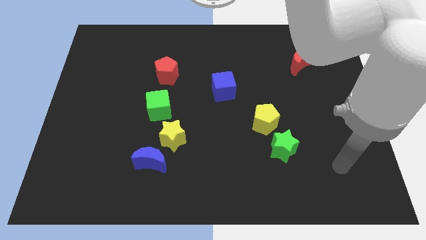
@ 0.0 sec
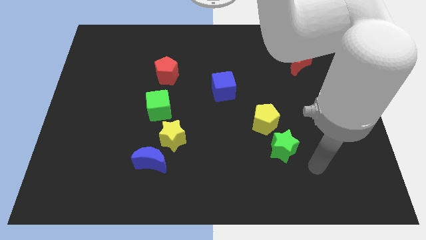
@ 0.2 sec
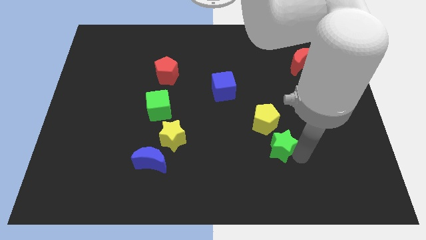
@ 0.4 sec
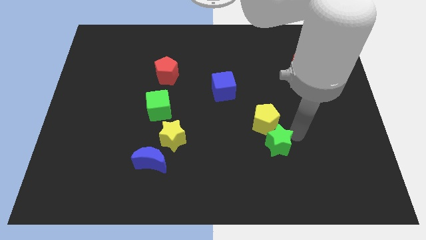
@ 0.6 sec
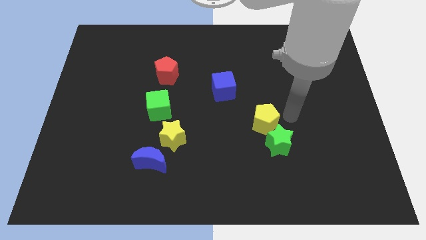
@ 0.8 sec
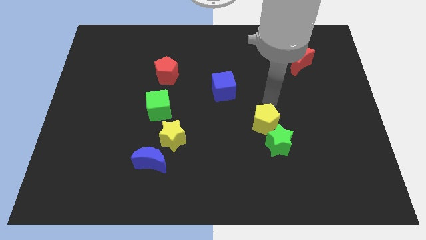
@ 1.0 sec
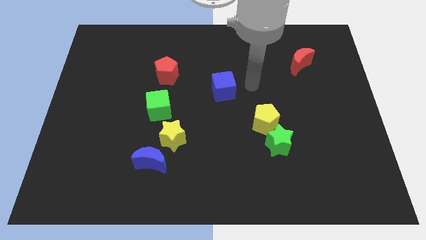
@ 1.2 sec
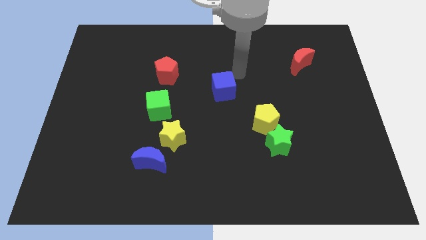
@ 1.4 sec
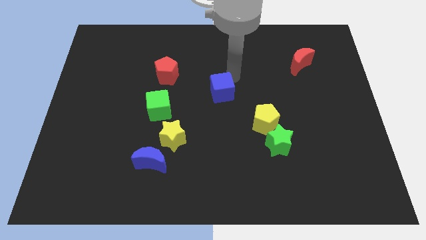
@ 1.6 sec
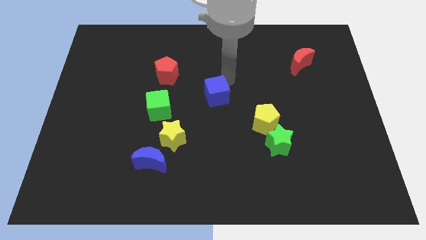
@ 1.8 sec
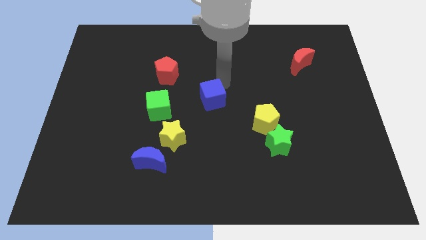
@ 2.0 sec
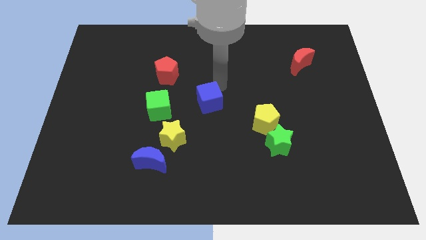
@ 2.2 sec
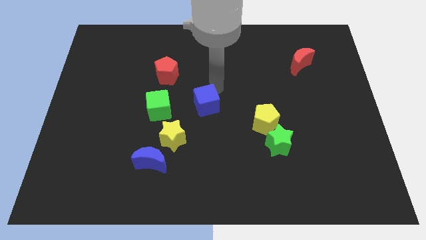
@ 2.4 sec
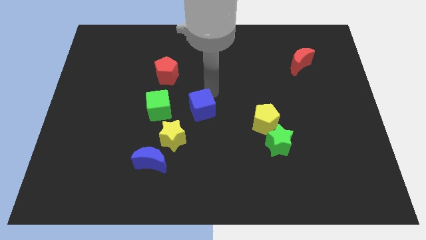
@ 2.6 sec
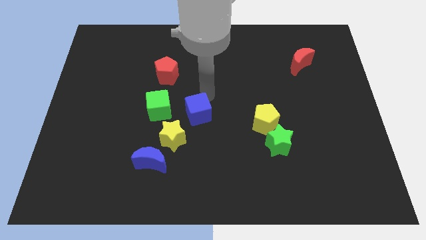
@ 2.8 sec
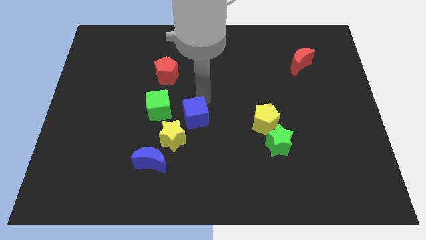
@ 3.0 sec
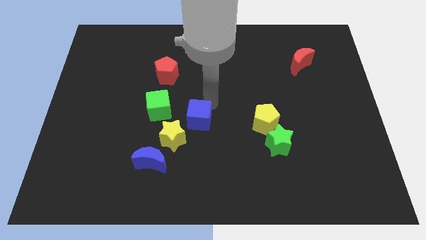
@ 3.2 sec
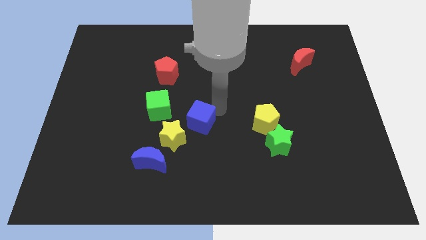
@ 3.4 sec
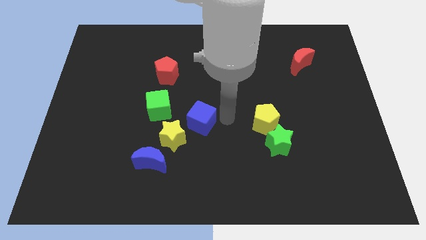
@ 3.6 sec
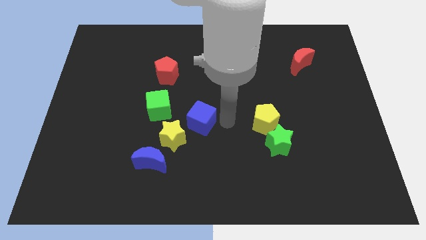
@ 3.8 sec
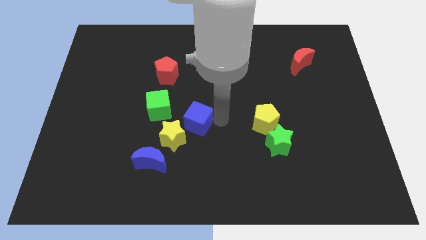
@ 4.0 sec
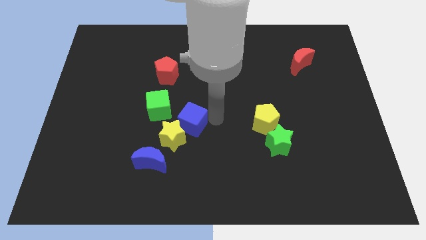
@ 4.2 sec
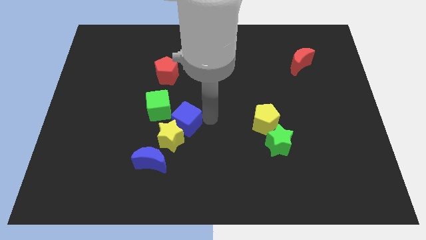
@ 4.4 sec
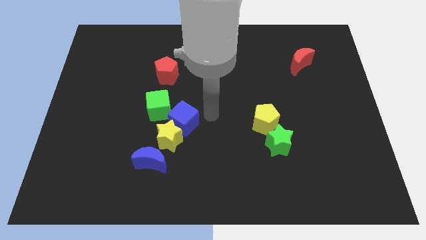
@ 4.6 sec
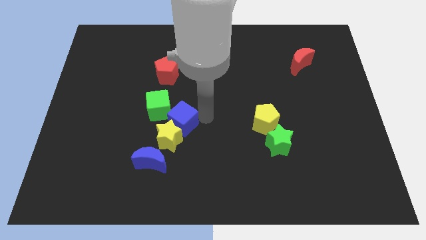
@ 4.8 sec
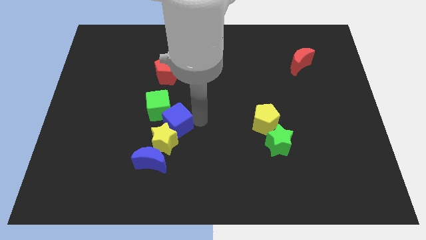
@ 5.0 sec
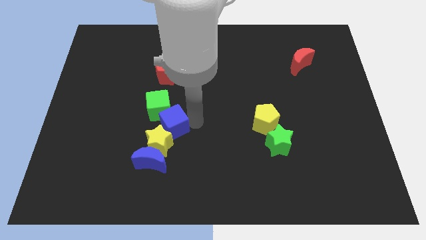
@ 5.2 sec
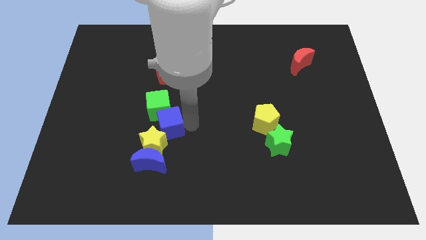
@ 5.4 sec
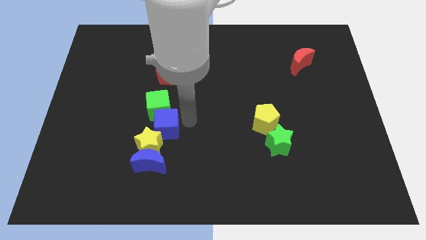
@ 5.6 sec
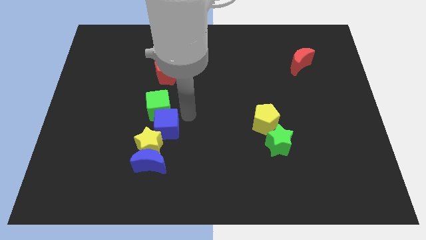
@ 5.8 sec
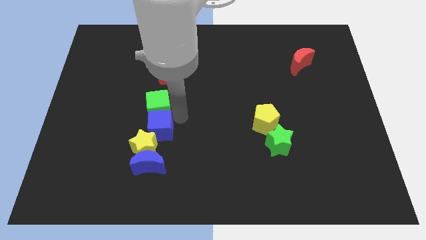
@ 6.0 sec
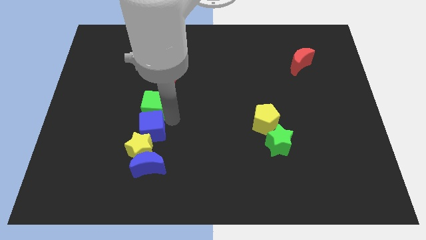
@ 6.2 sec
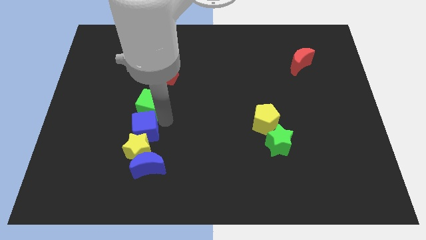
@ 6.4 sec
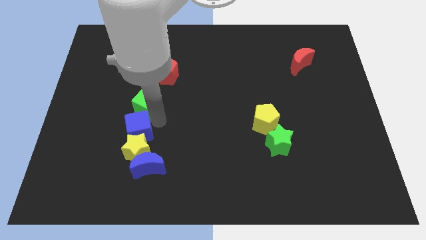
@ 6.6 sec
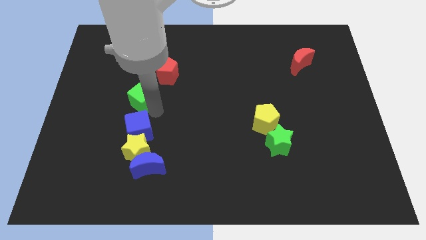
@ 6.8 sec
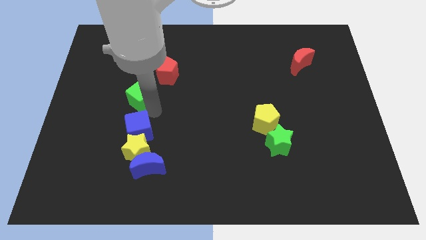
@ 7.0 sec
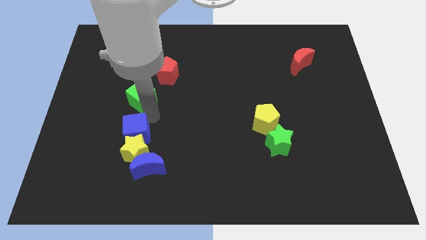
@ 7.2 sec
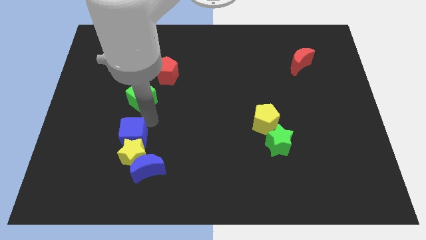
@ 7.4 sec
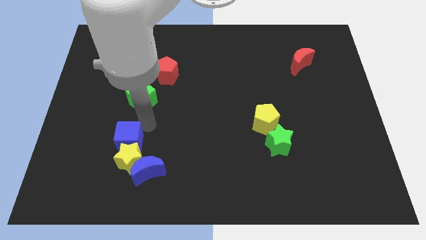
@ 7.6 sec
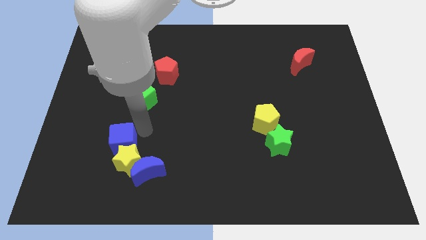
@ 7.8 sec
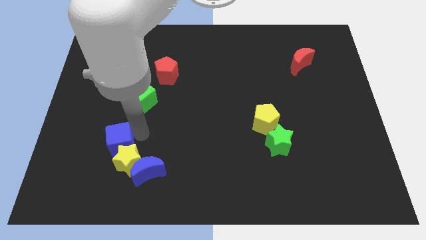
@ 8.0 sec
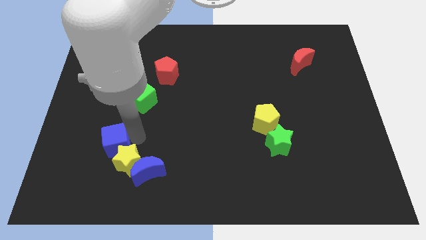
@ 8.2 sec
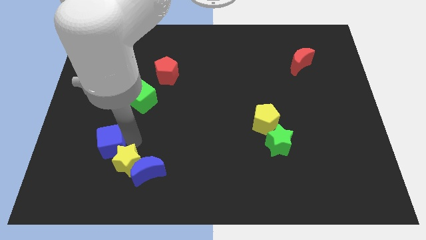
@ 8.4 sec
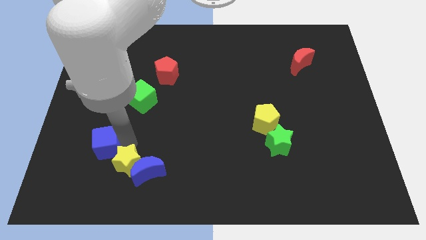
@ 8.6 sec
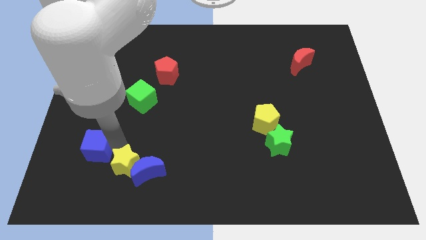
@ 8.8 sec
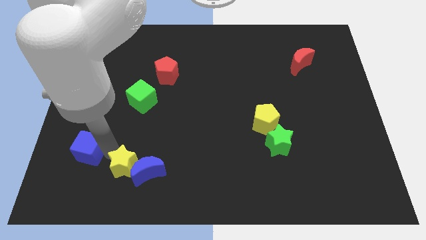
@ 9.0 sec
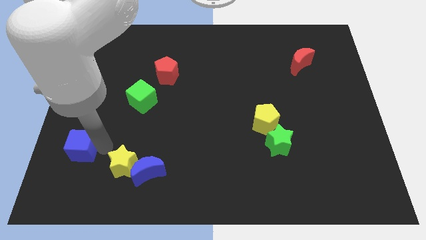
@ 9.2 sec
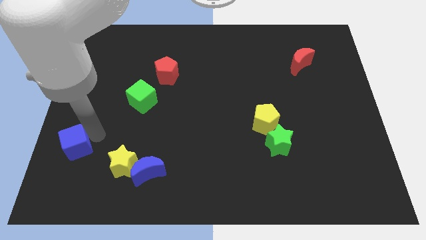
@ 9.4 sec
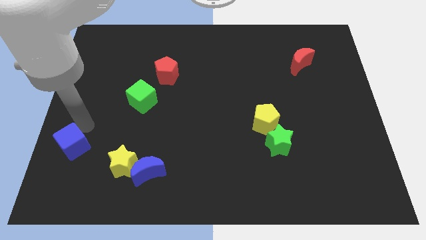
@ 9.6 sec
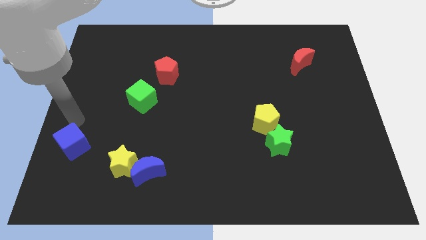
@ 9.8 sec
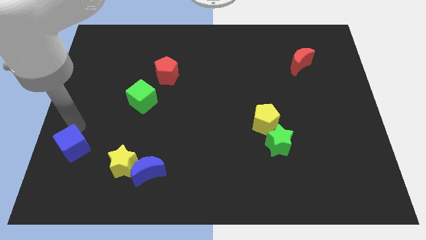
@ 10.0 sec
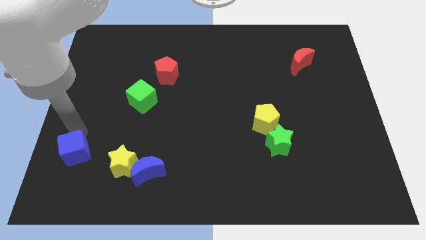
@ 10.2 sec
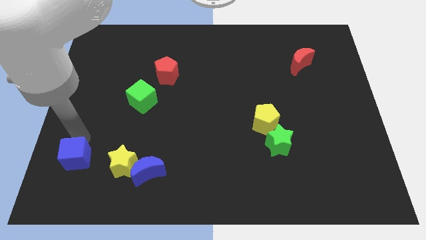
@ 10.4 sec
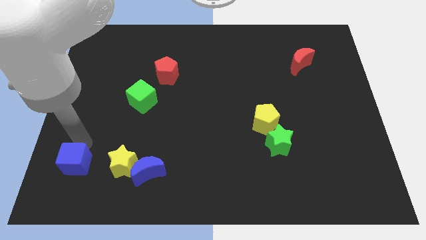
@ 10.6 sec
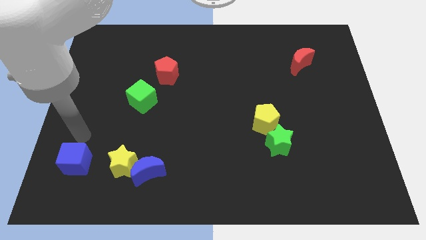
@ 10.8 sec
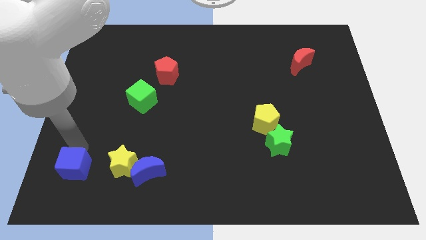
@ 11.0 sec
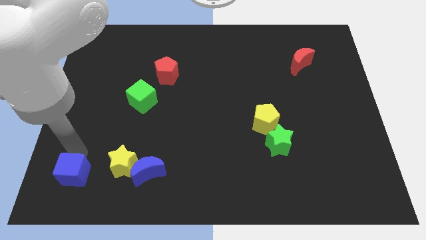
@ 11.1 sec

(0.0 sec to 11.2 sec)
move the blue cube to the lower left corner

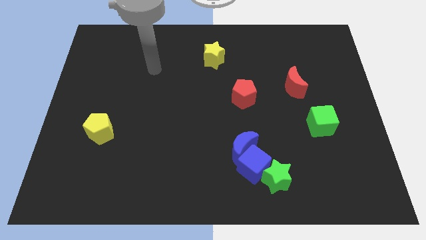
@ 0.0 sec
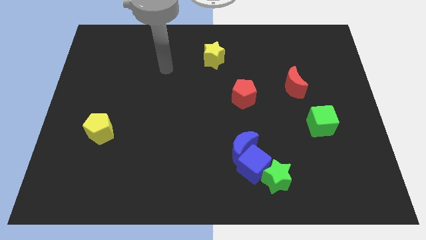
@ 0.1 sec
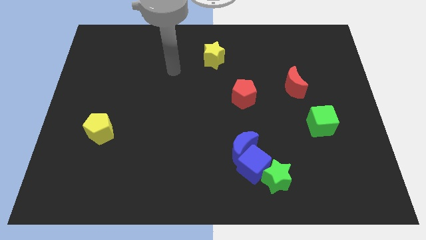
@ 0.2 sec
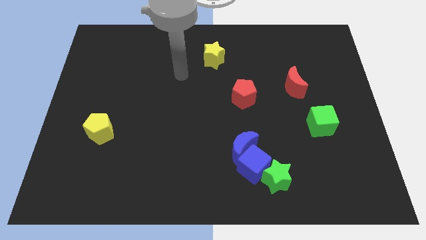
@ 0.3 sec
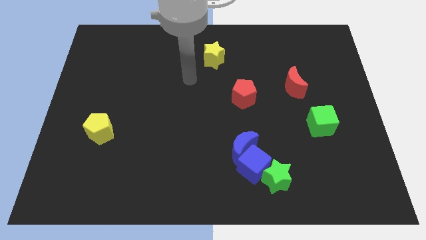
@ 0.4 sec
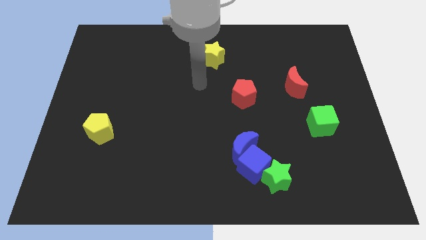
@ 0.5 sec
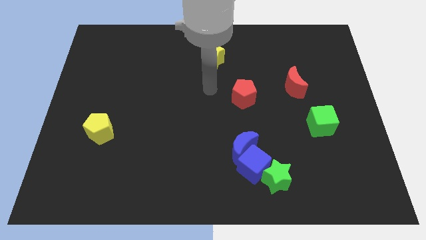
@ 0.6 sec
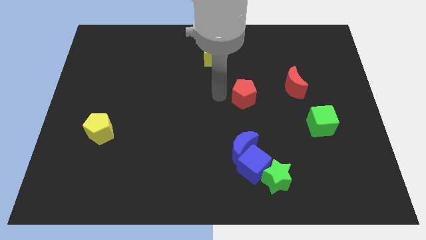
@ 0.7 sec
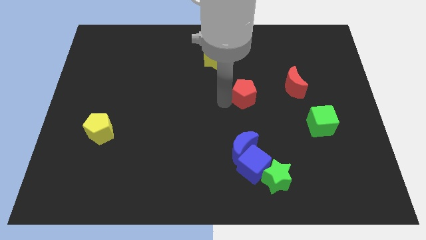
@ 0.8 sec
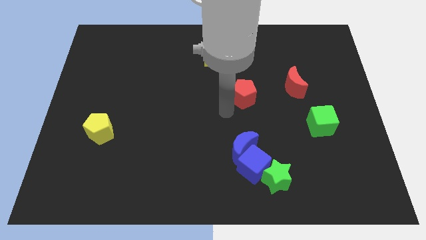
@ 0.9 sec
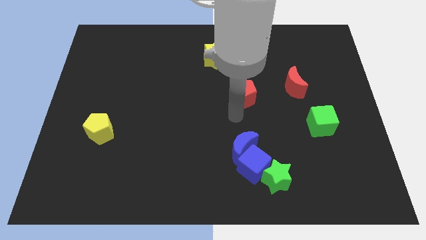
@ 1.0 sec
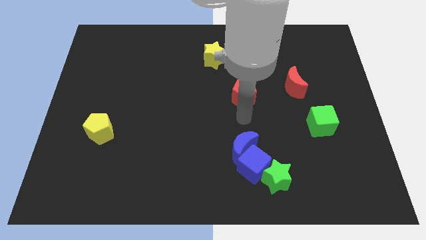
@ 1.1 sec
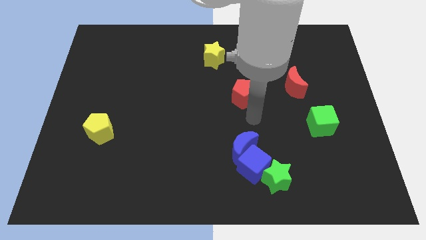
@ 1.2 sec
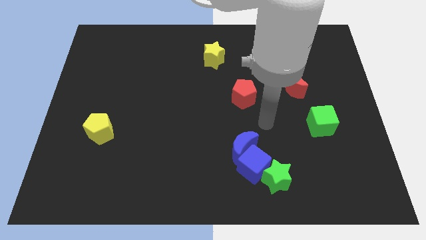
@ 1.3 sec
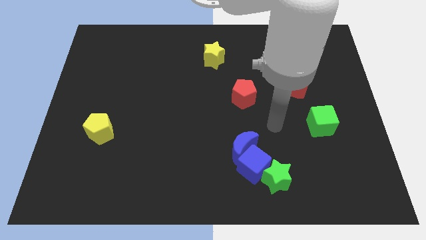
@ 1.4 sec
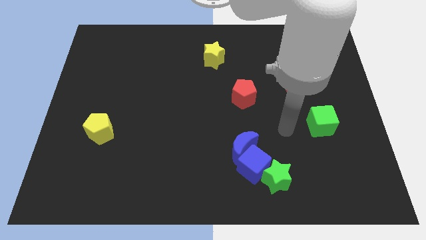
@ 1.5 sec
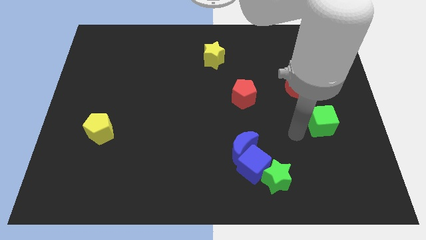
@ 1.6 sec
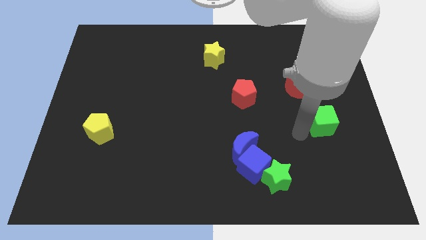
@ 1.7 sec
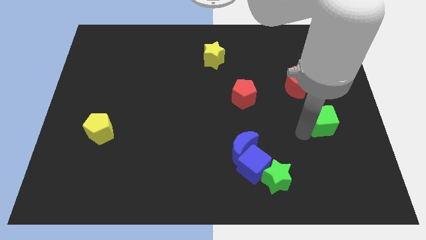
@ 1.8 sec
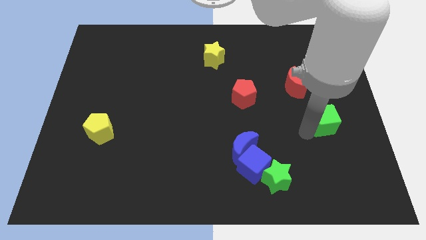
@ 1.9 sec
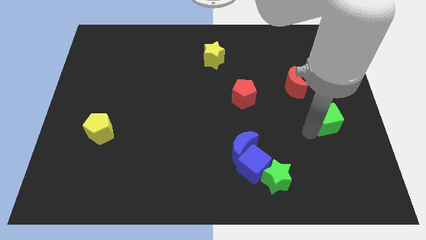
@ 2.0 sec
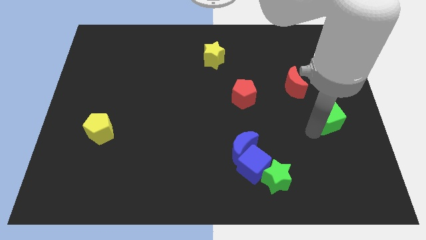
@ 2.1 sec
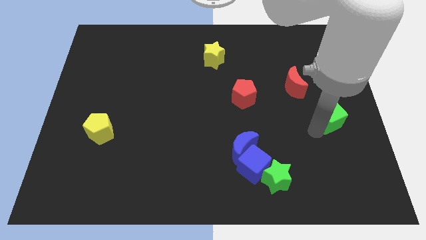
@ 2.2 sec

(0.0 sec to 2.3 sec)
slide the green cube to the right side of the board
